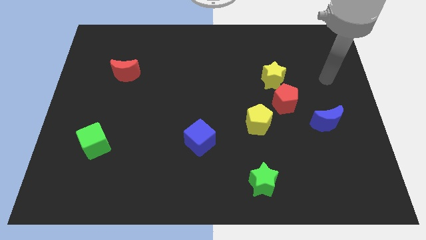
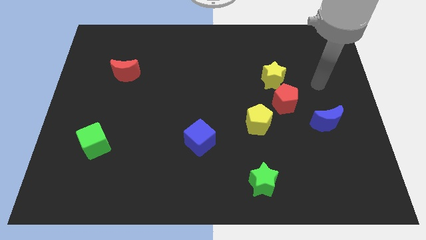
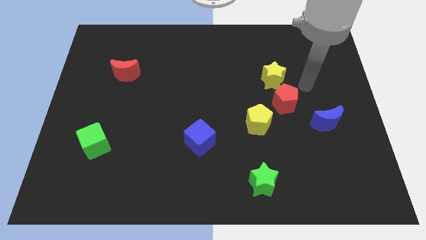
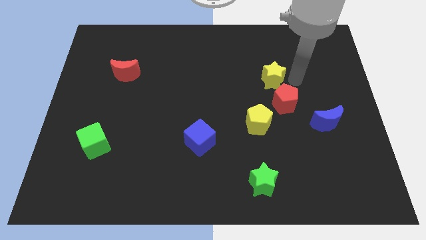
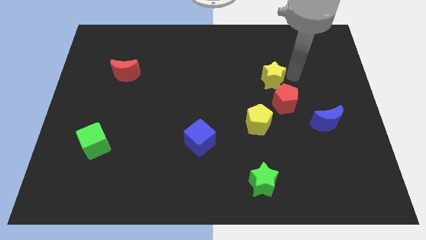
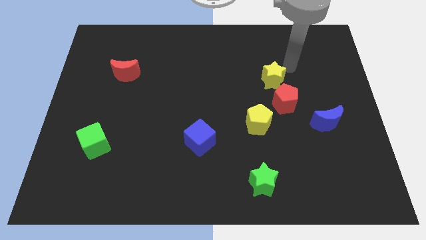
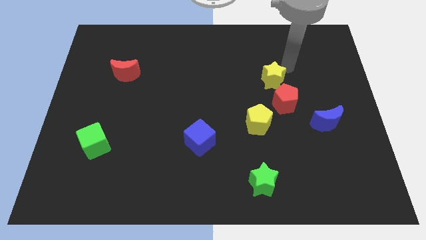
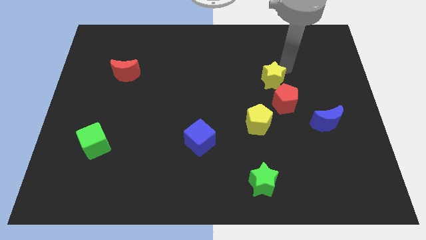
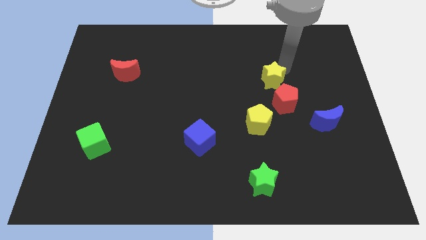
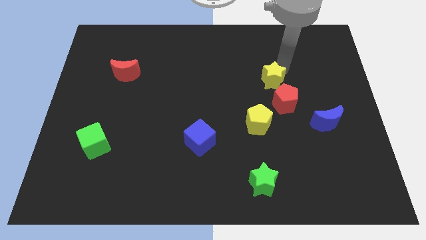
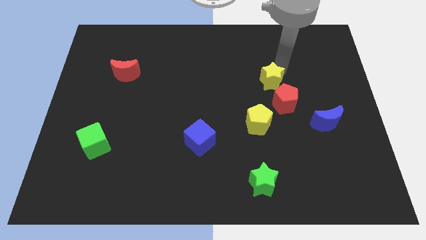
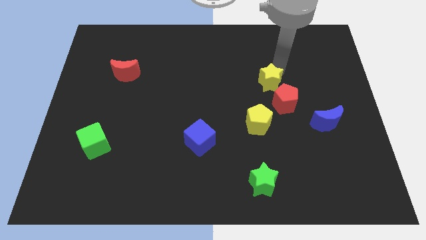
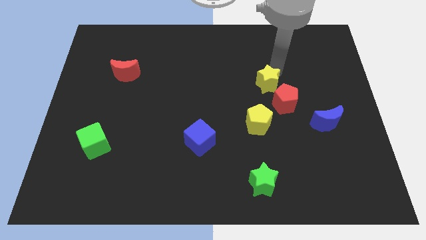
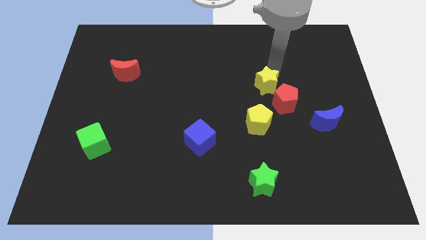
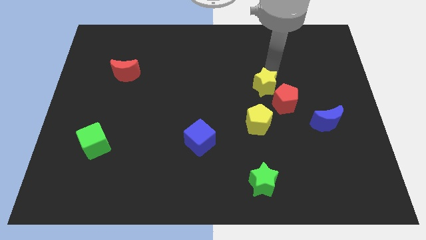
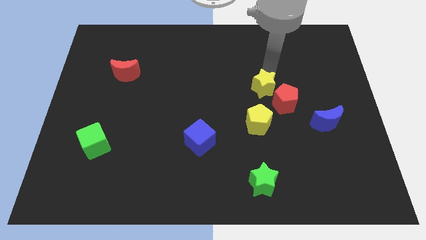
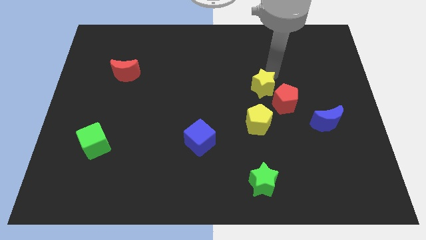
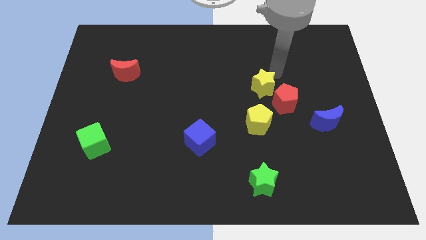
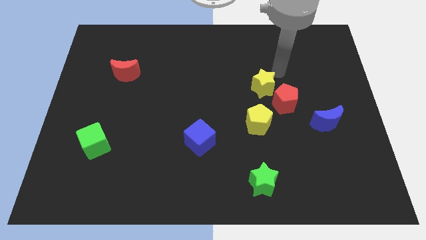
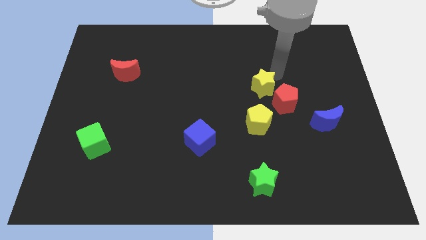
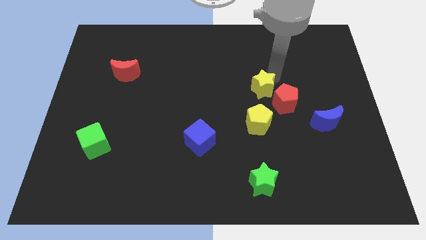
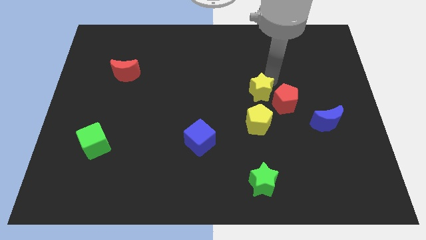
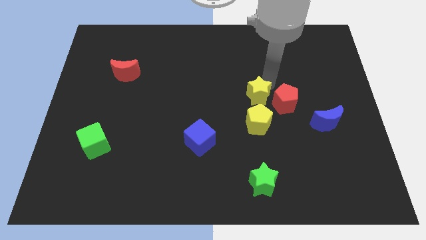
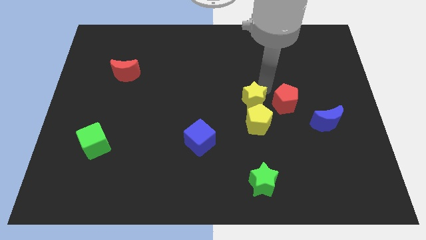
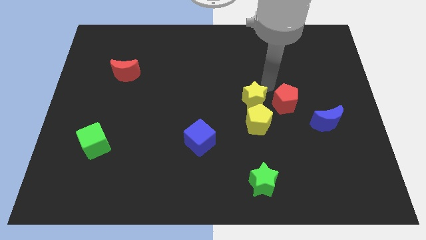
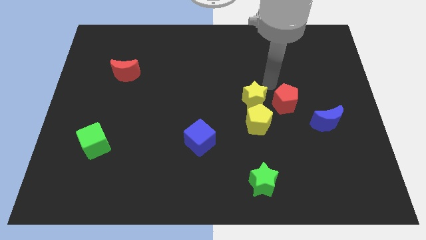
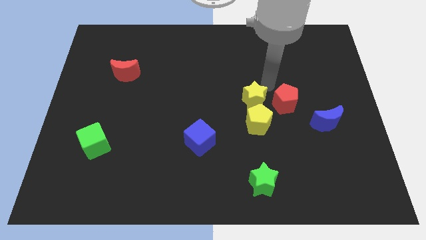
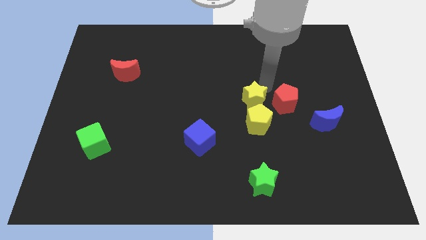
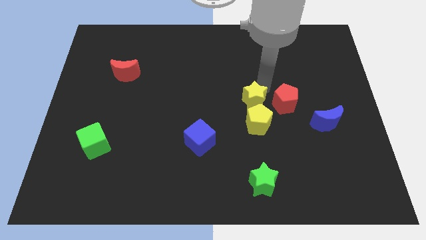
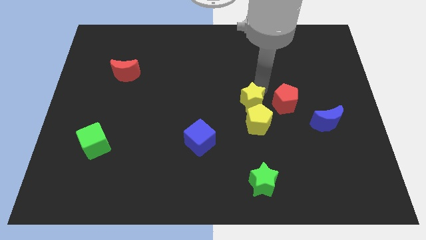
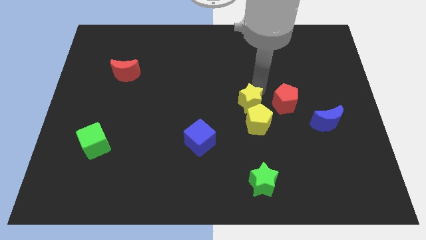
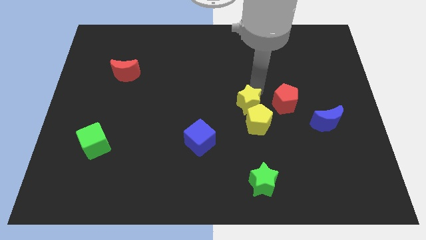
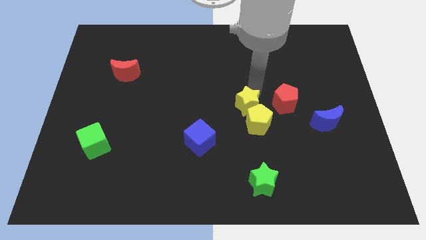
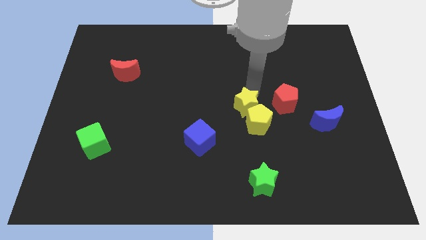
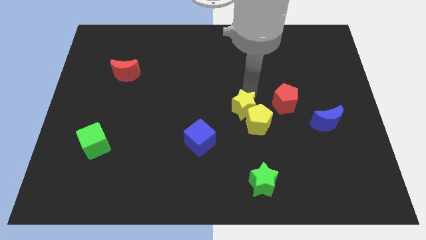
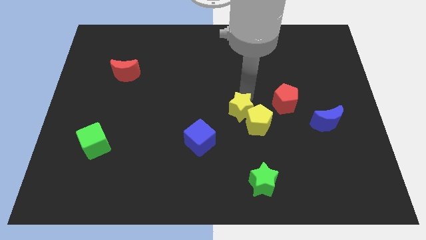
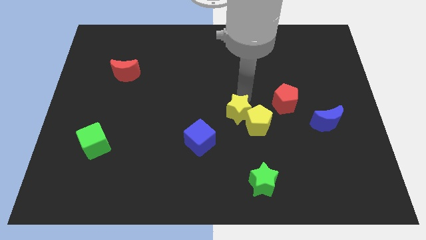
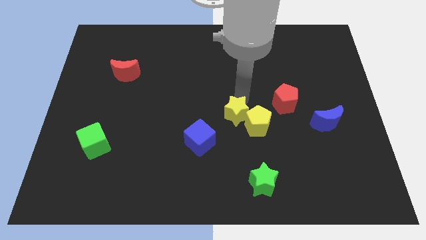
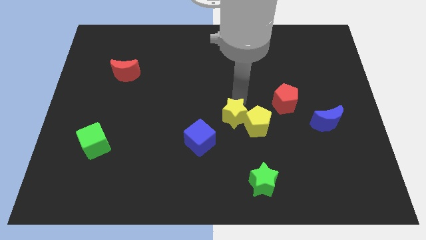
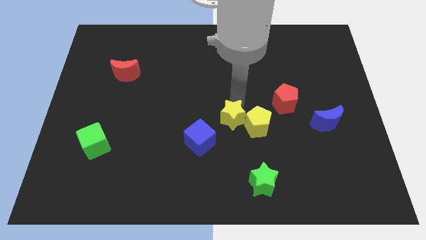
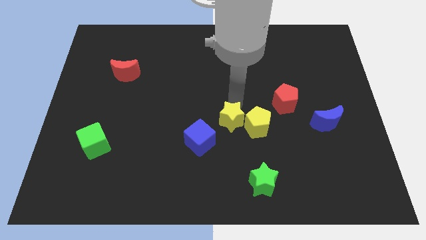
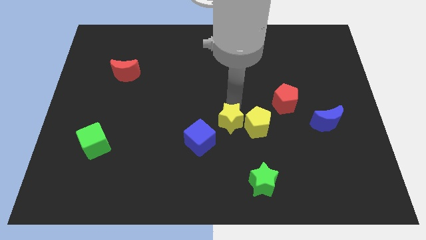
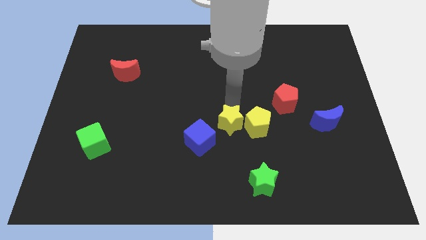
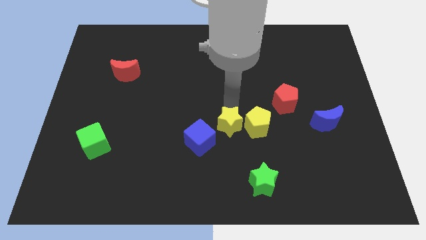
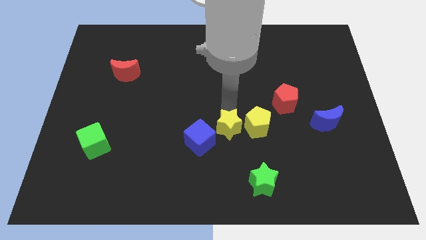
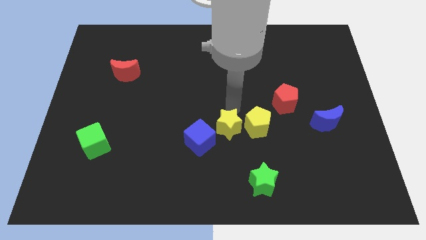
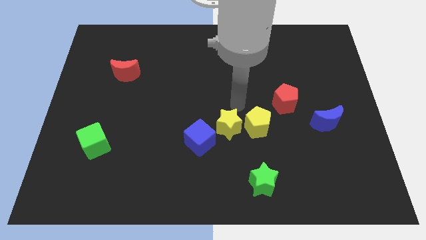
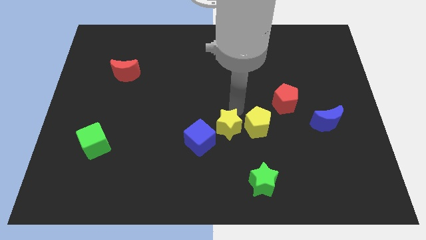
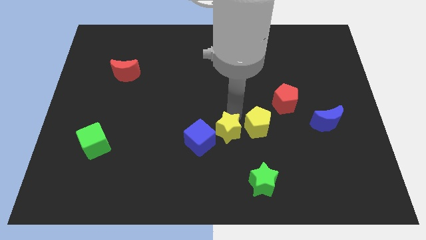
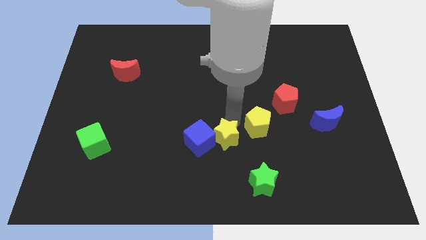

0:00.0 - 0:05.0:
push the yellow star down and then to the left

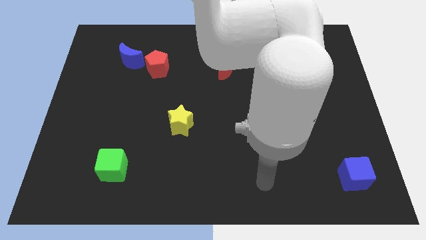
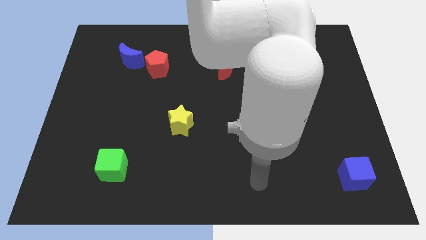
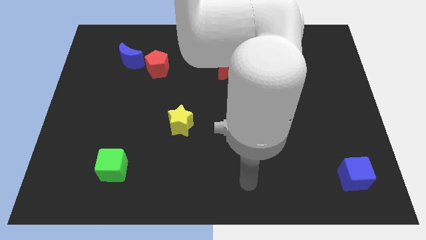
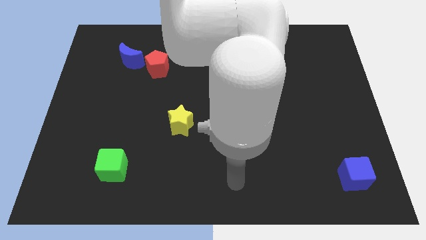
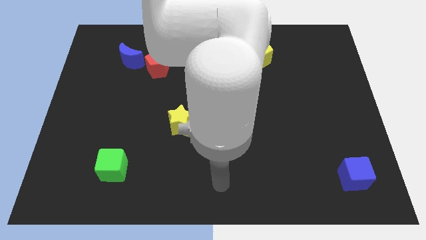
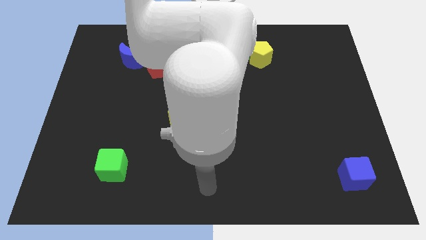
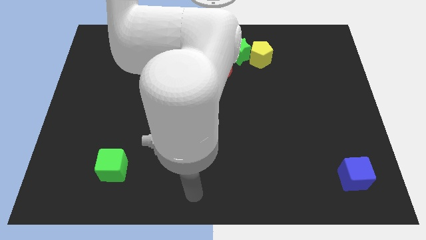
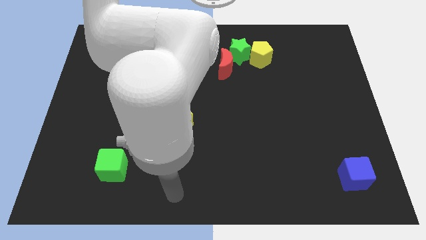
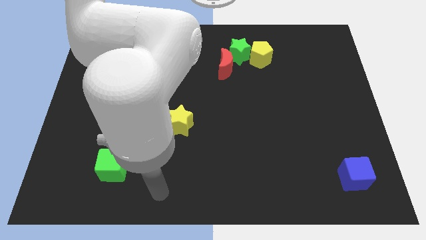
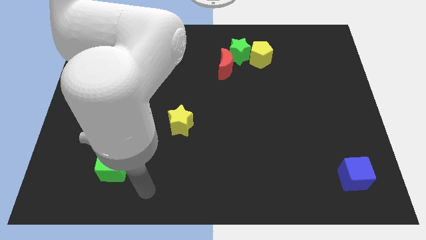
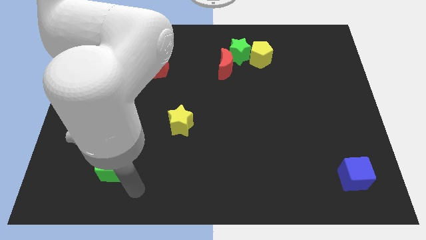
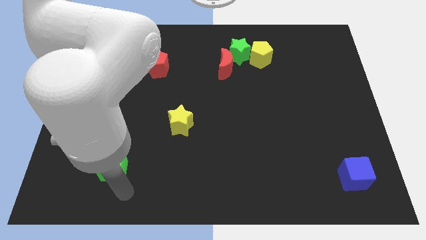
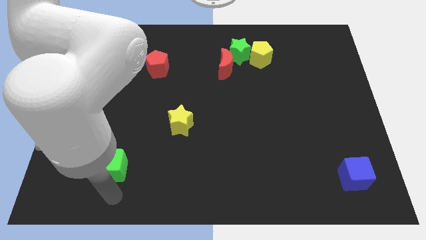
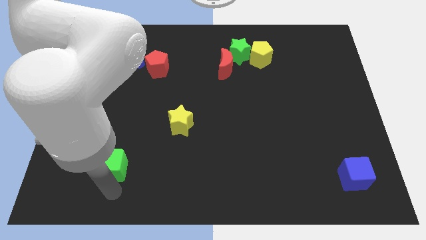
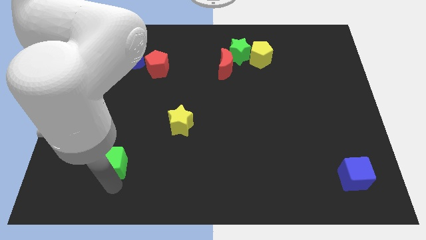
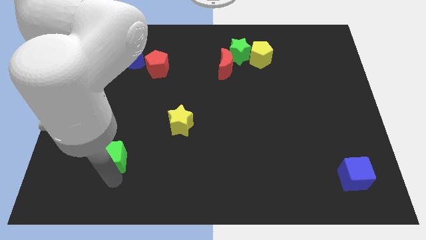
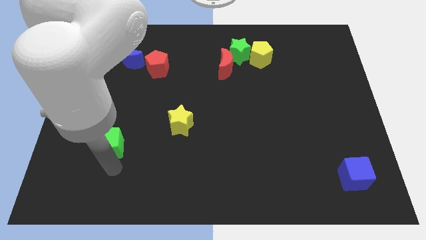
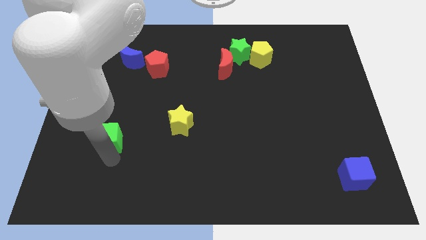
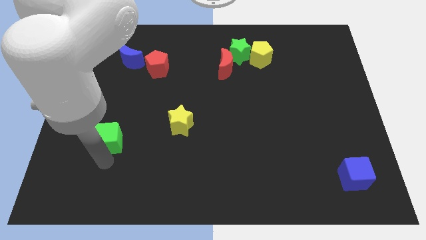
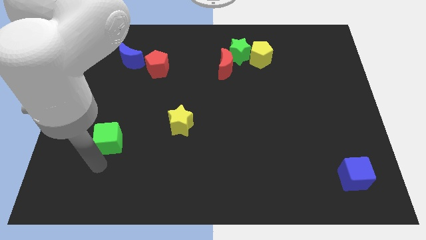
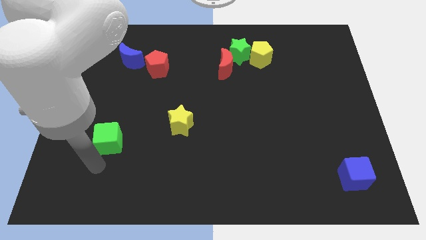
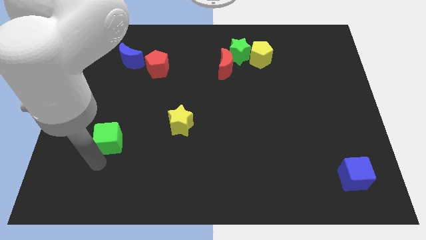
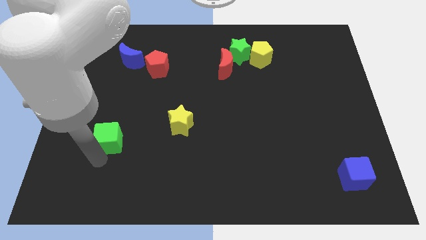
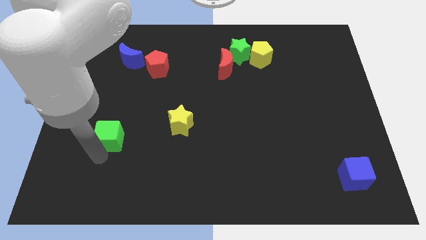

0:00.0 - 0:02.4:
move the green cube a little bit upwards

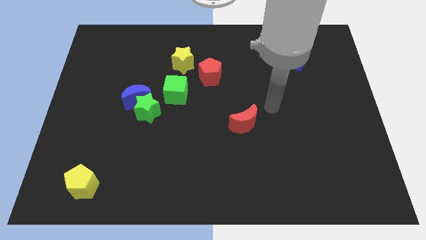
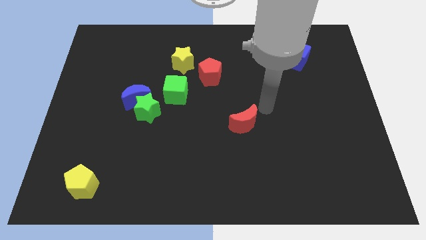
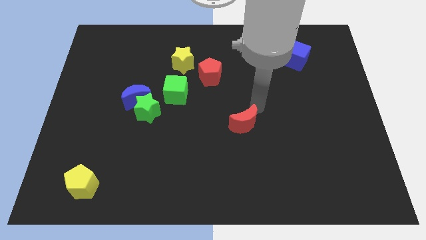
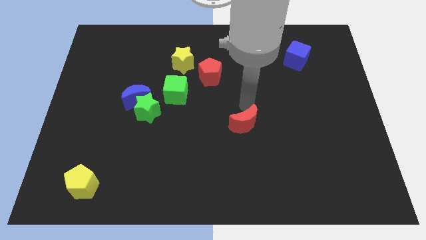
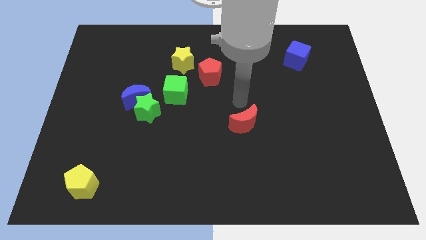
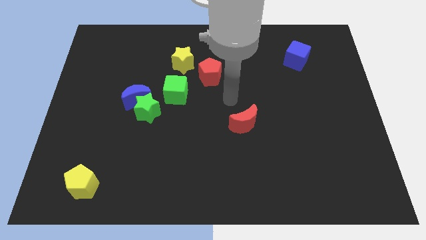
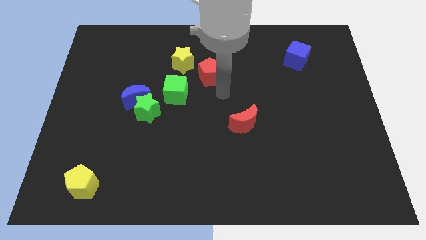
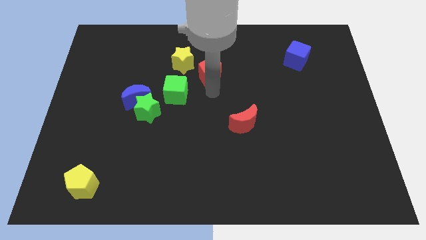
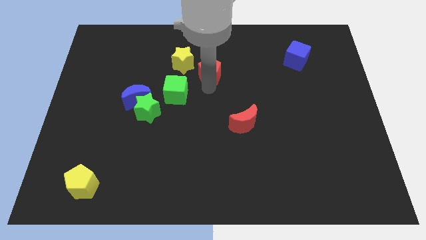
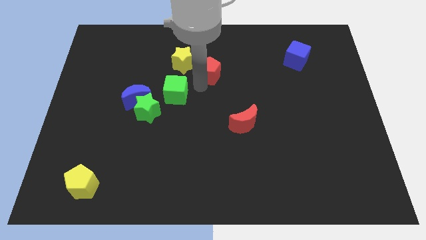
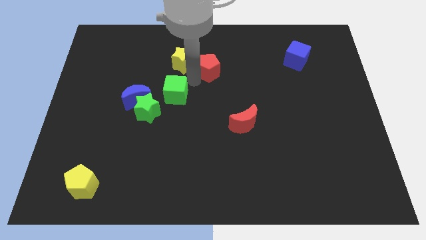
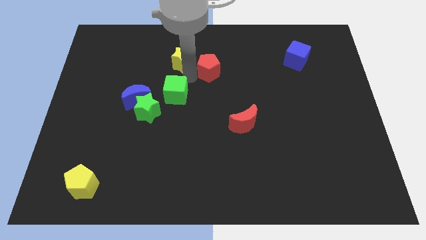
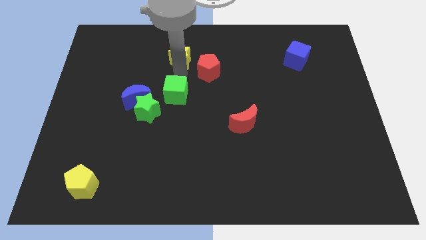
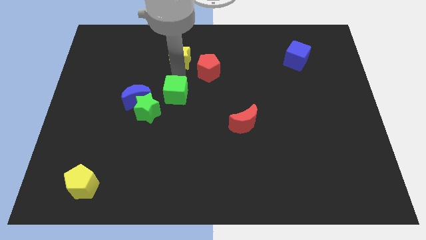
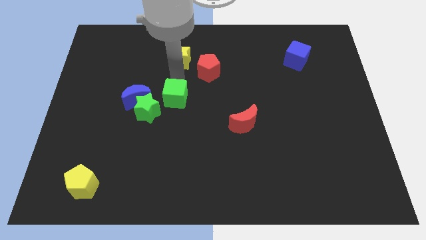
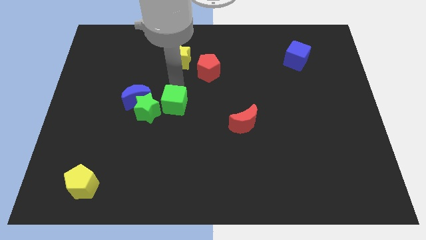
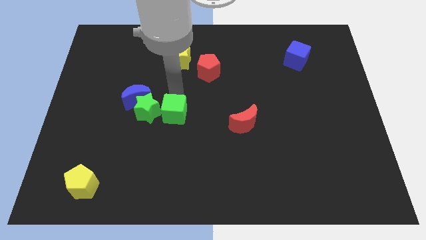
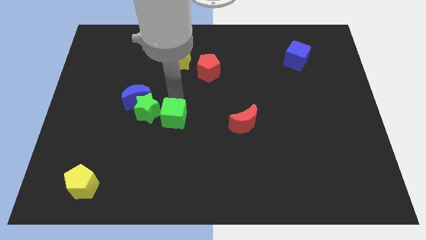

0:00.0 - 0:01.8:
move the green cube somewhat downwards
